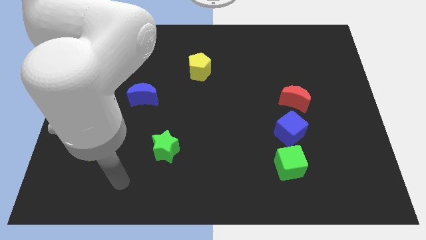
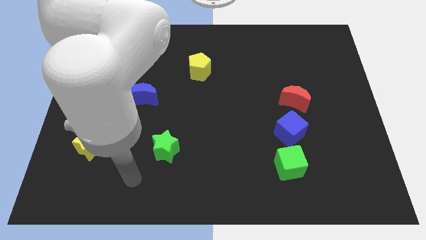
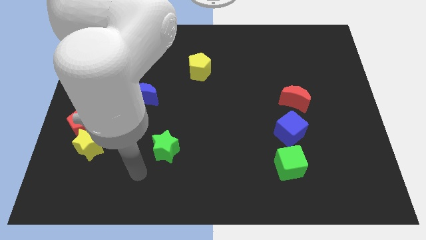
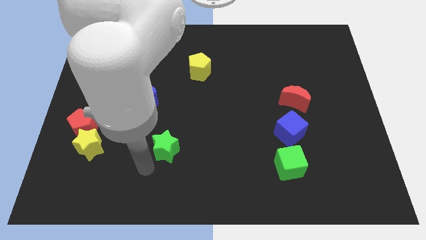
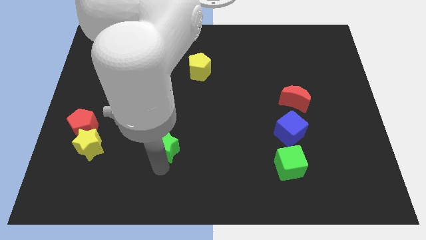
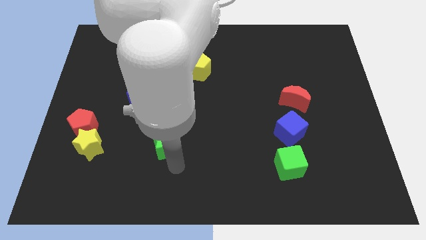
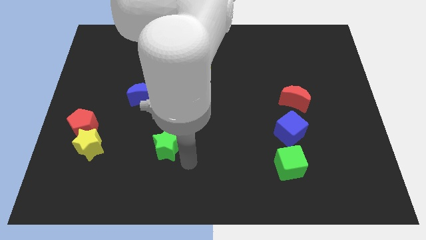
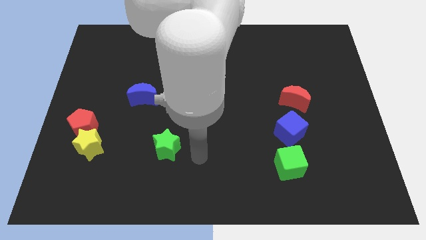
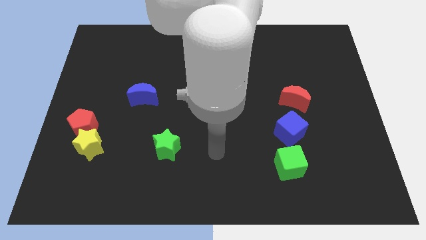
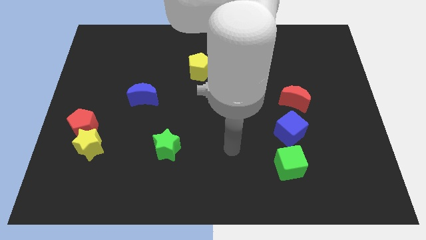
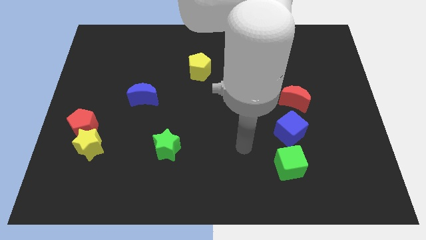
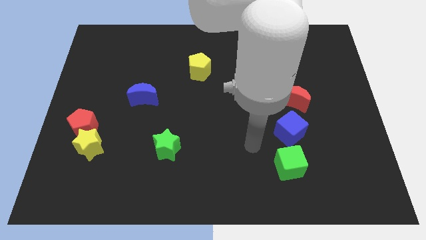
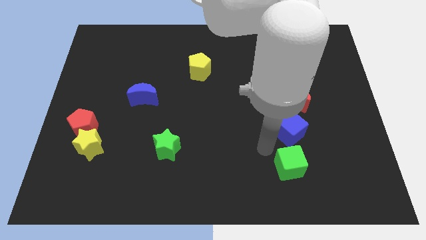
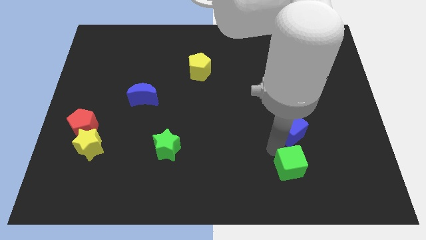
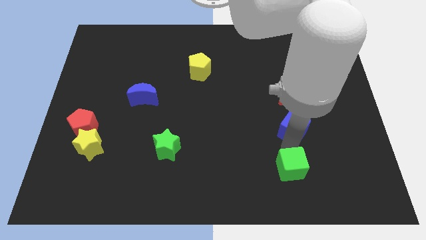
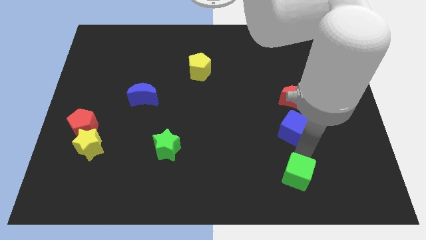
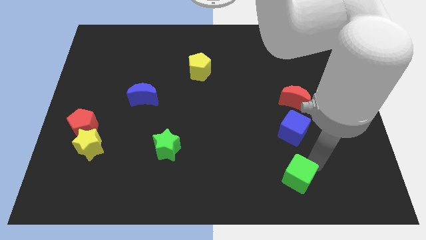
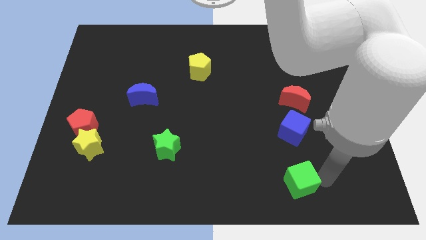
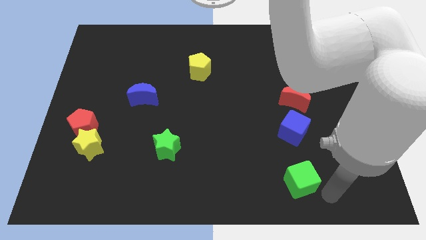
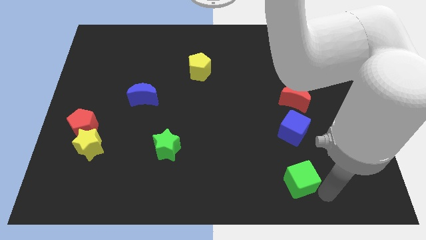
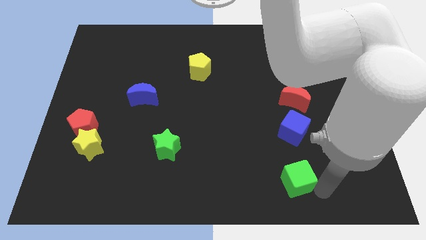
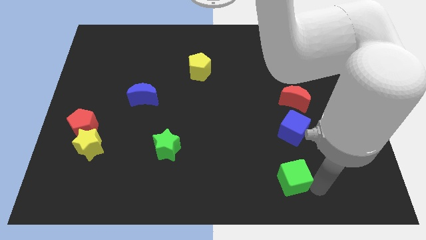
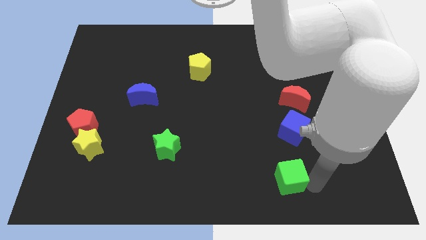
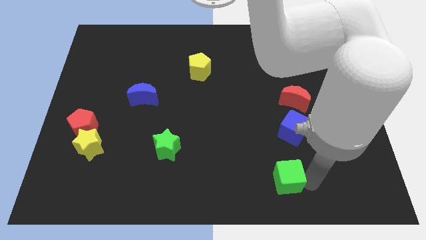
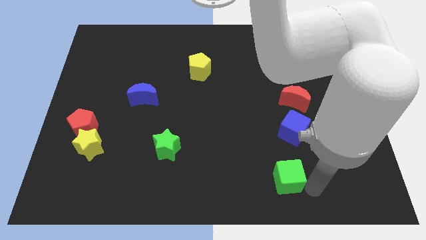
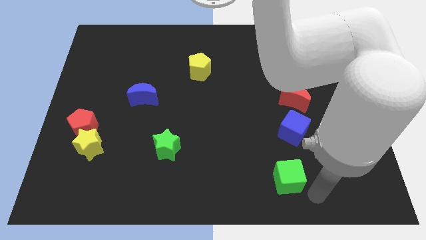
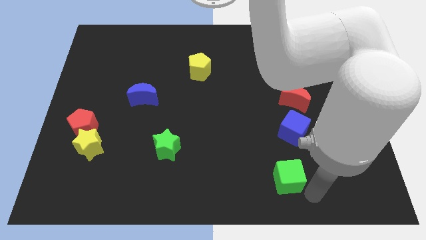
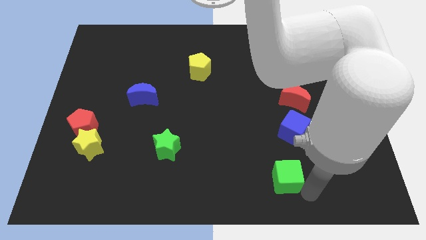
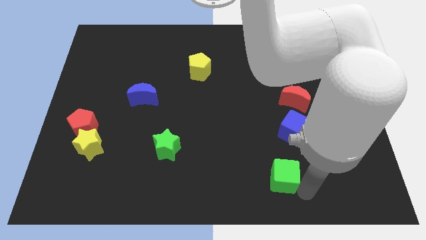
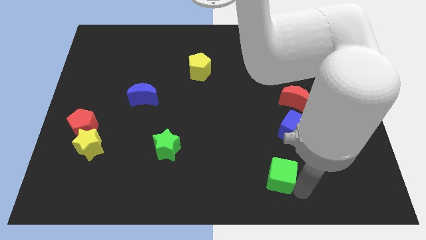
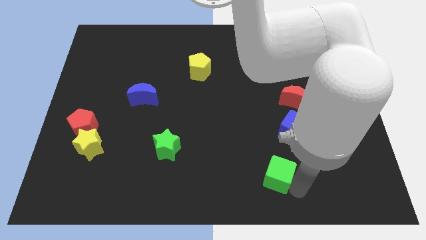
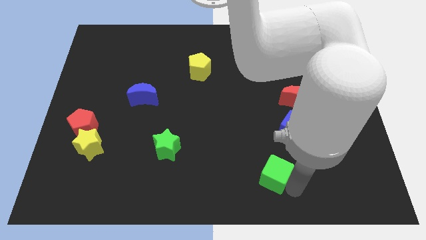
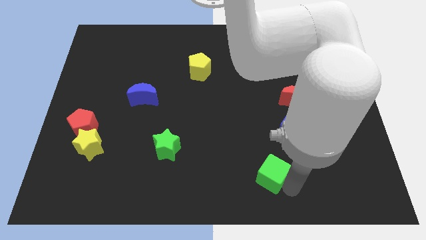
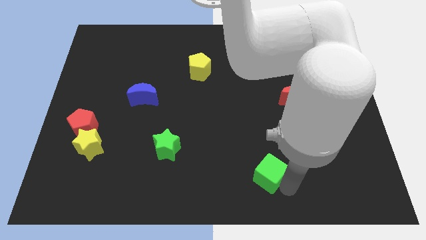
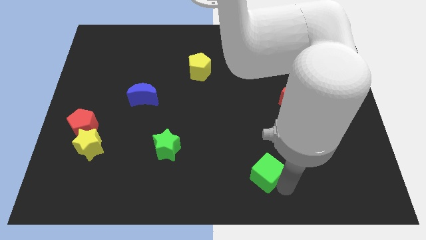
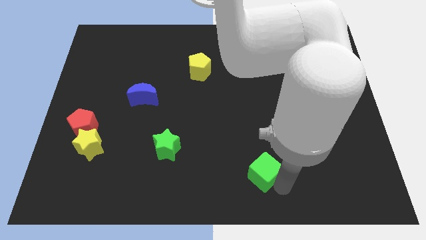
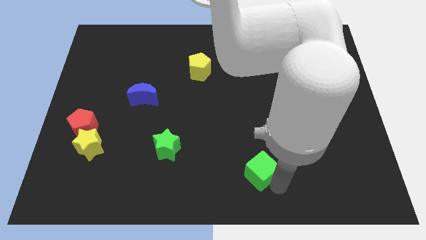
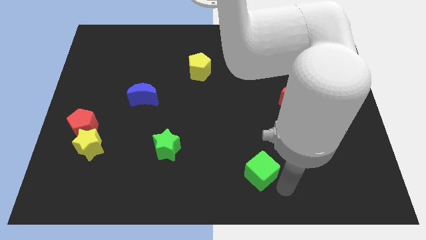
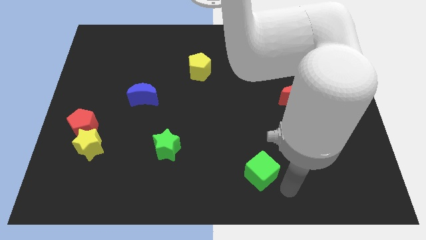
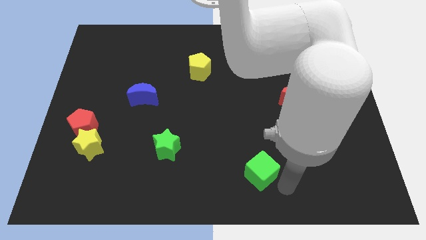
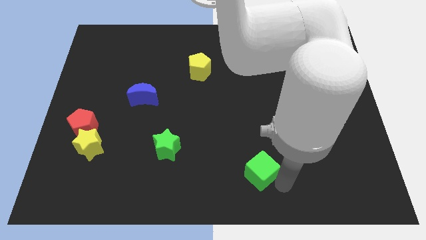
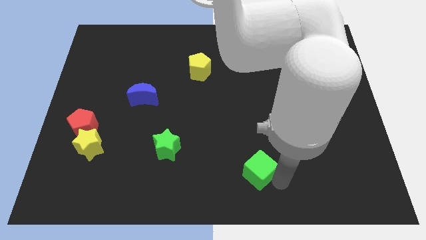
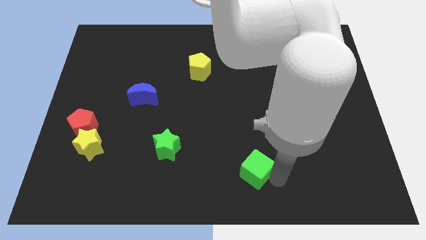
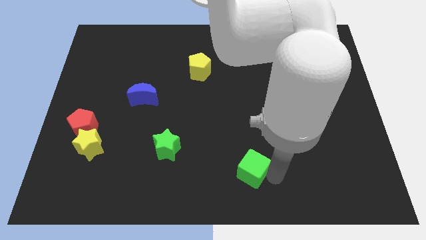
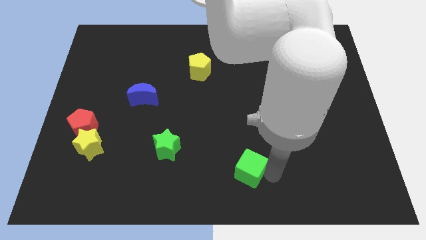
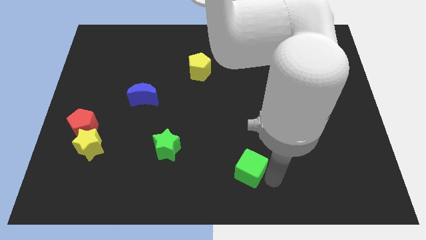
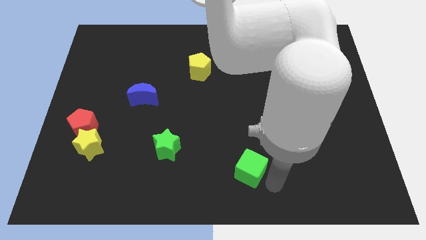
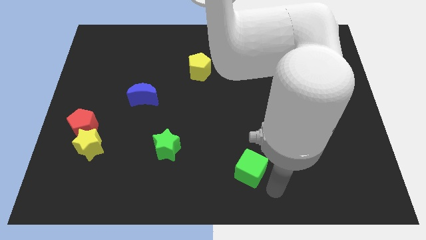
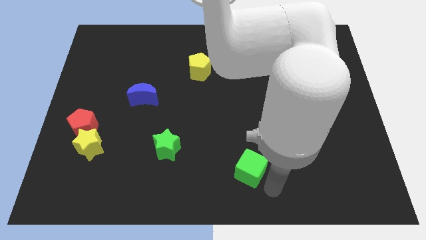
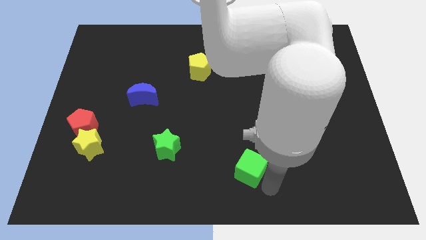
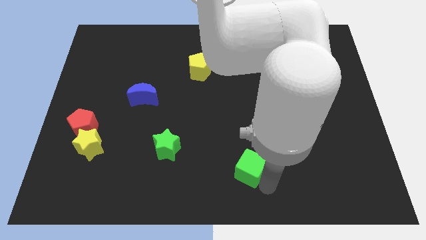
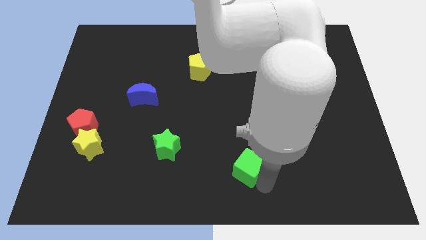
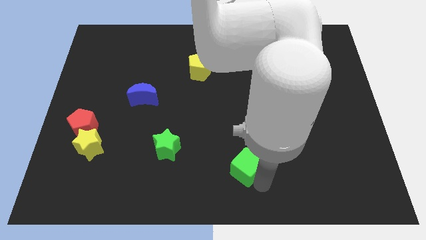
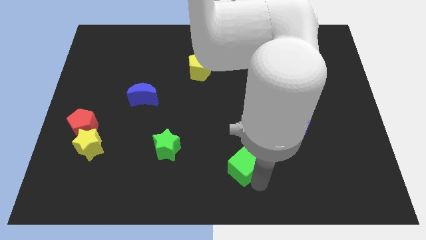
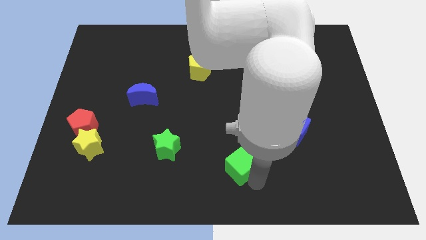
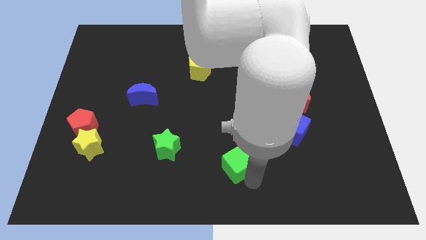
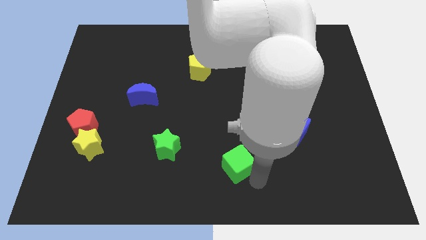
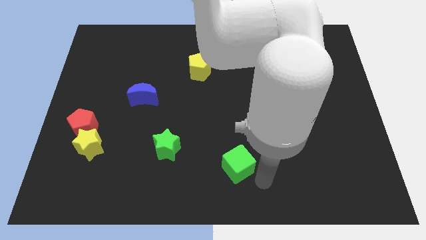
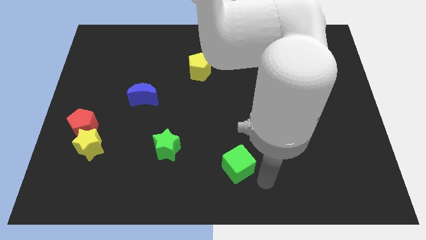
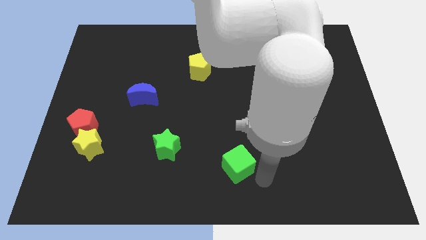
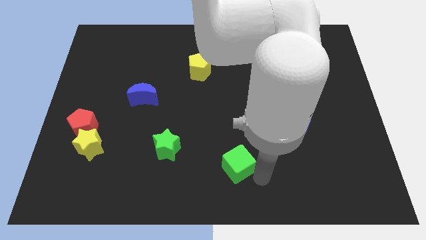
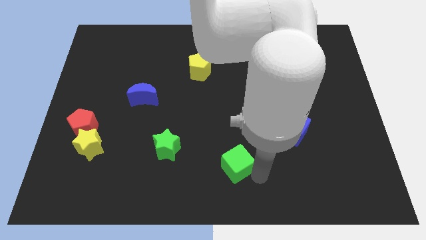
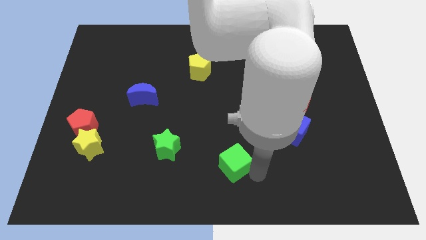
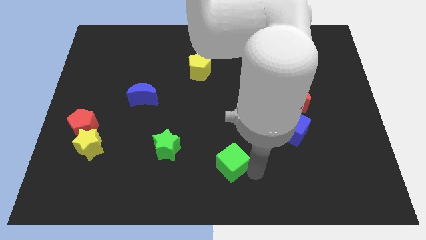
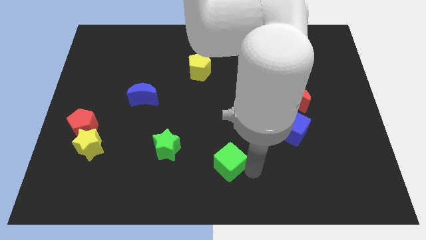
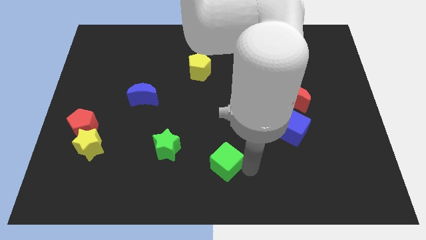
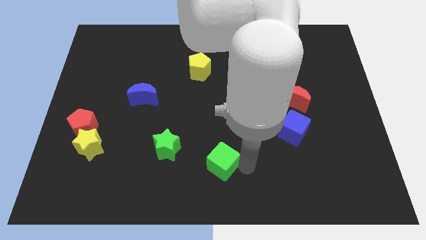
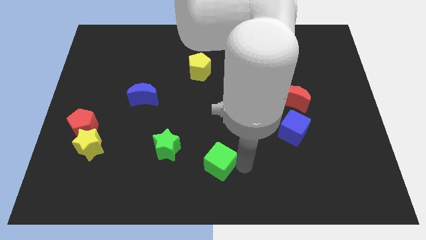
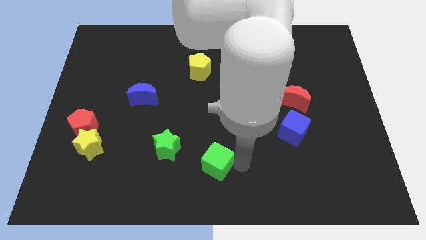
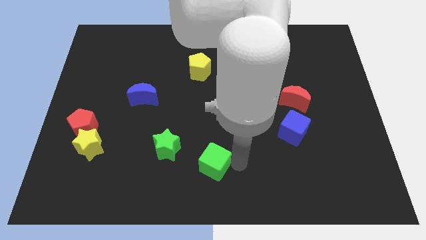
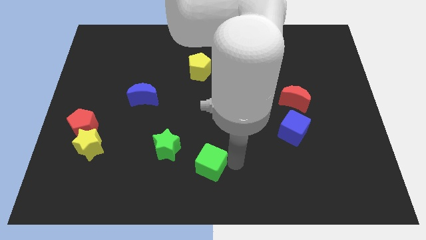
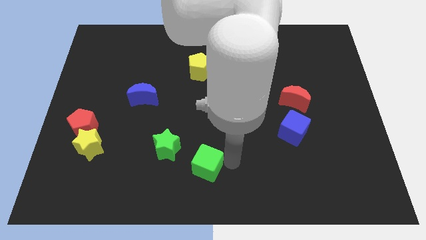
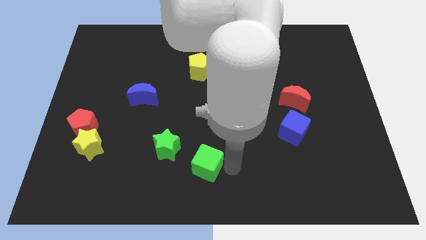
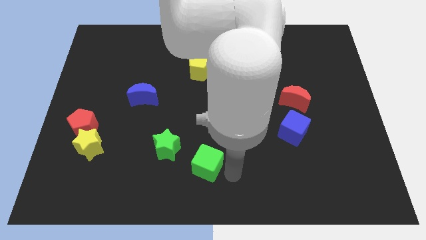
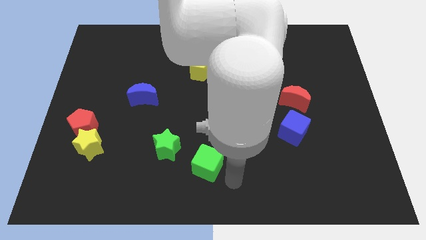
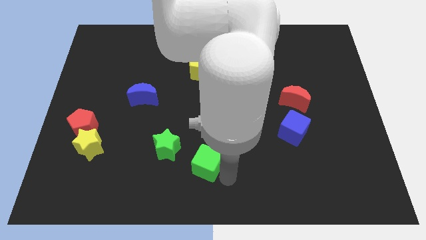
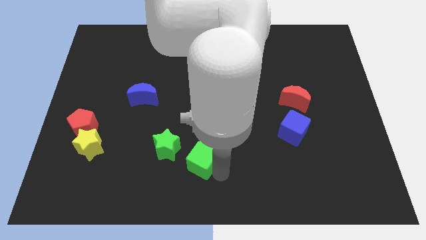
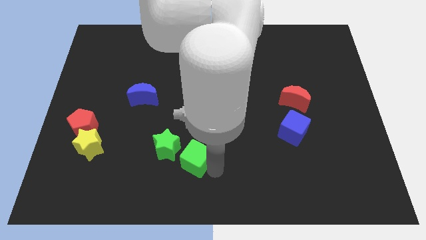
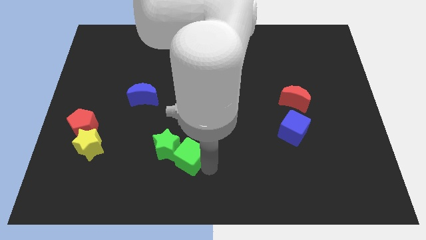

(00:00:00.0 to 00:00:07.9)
move the green cube to the green star

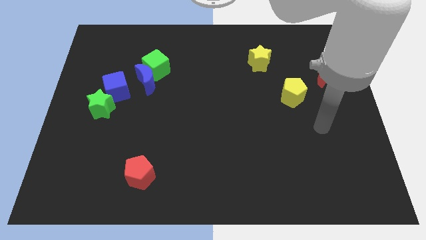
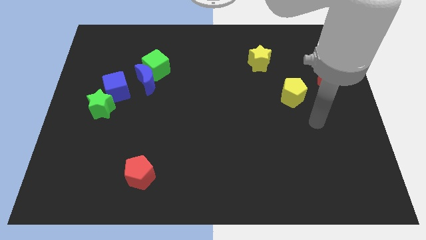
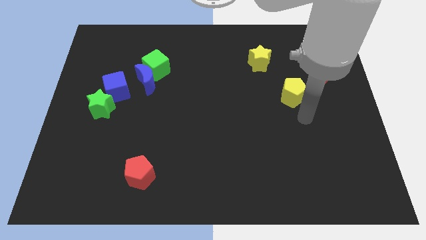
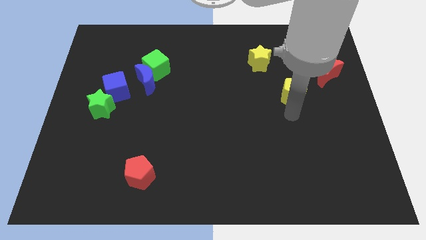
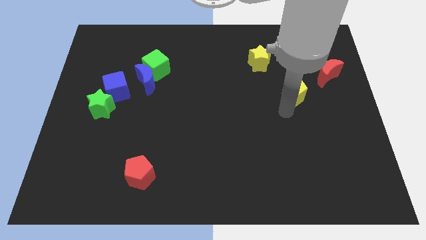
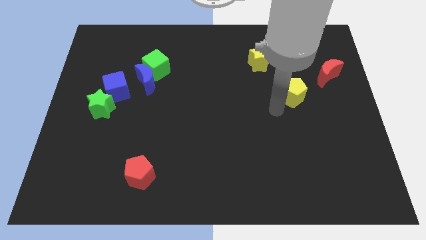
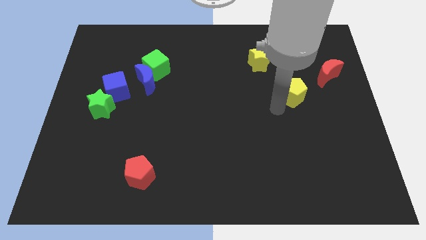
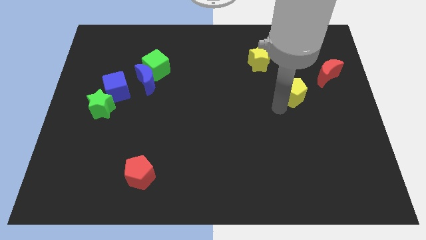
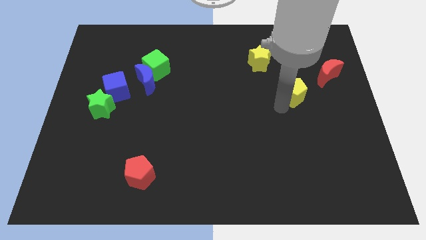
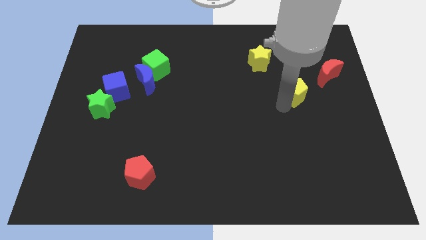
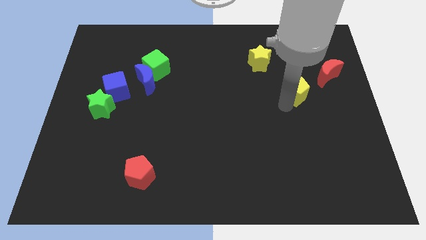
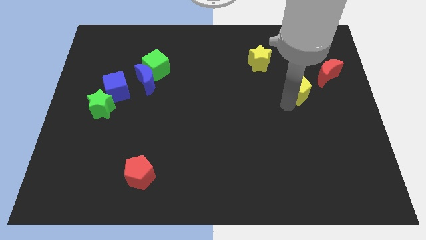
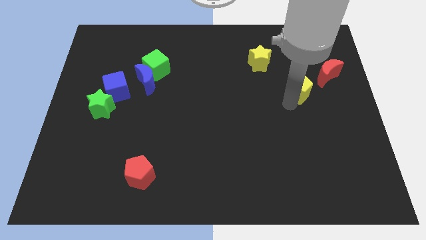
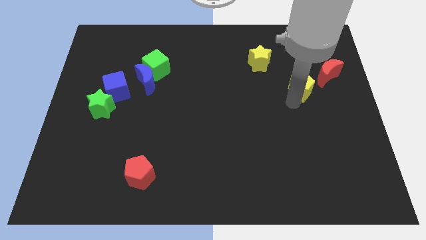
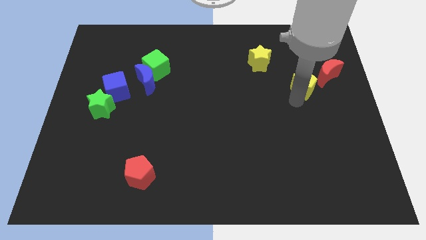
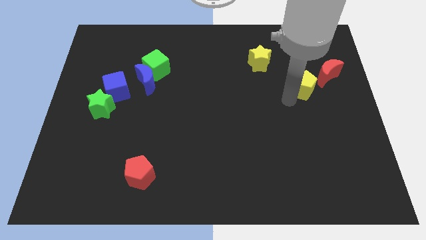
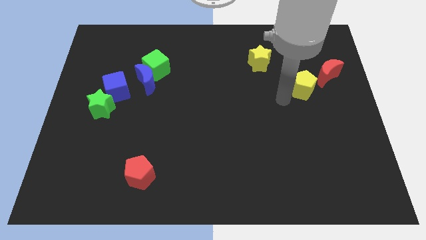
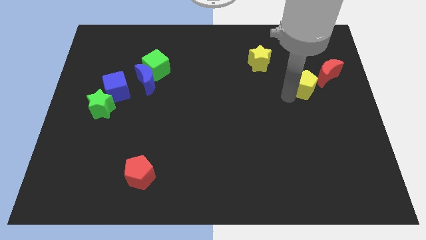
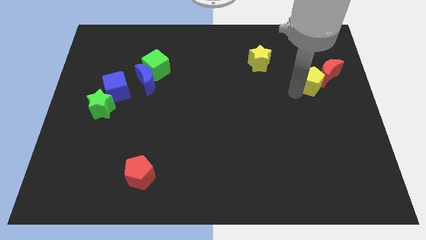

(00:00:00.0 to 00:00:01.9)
push the yellow pentagon to the red moon
